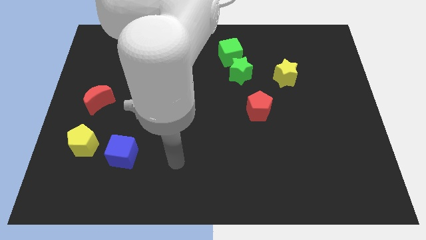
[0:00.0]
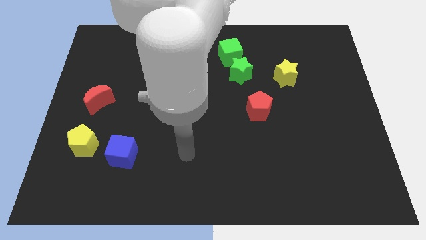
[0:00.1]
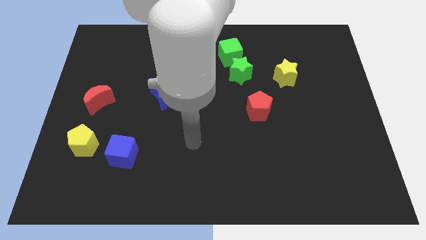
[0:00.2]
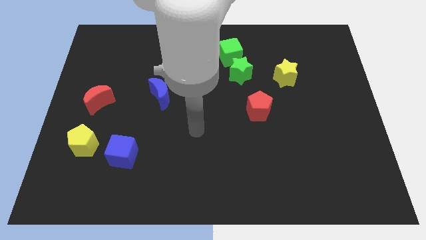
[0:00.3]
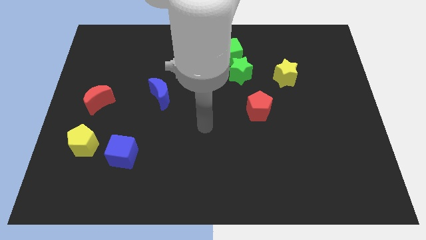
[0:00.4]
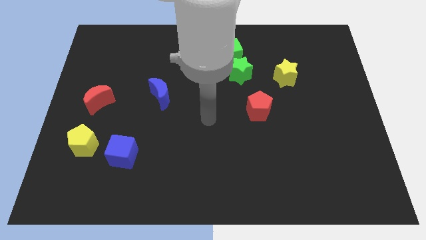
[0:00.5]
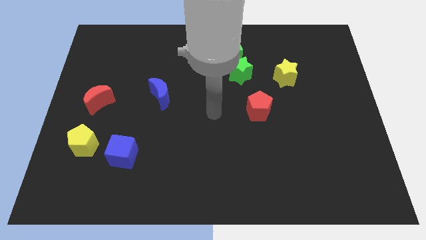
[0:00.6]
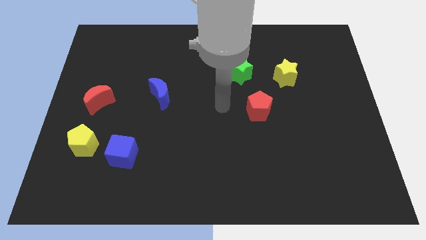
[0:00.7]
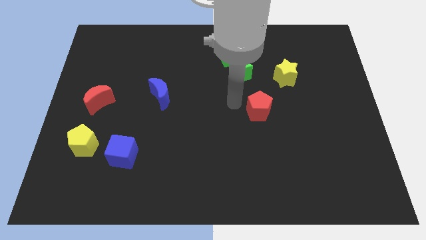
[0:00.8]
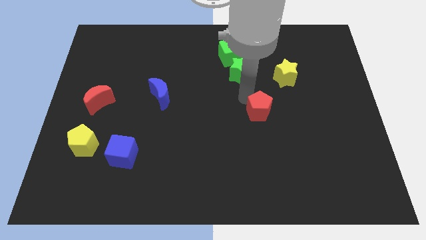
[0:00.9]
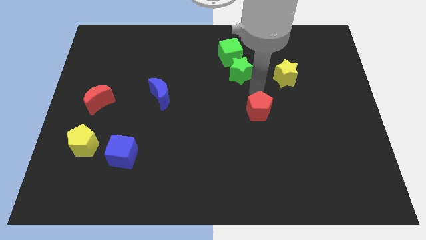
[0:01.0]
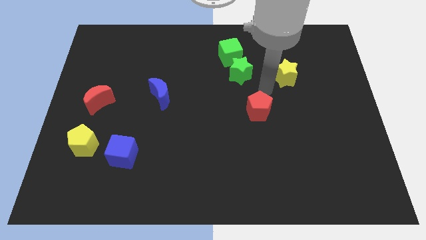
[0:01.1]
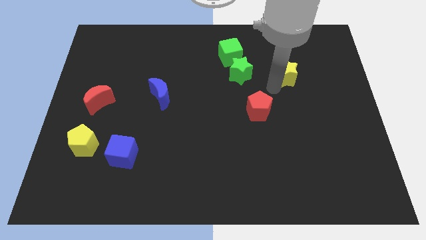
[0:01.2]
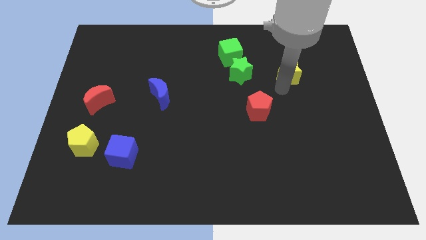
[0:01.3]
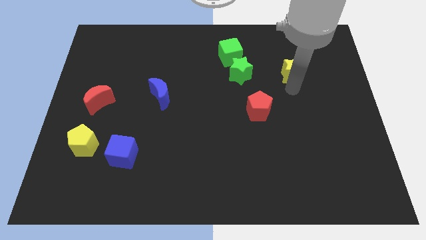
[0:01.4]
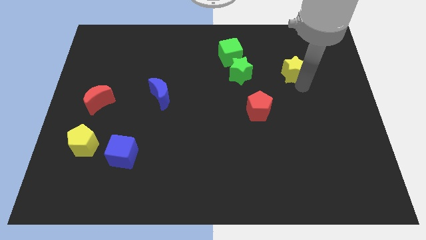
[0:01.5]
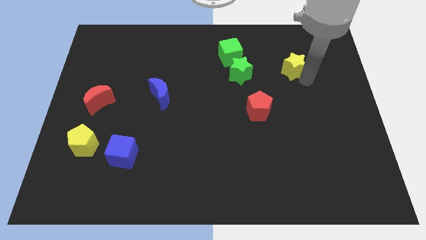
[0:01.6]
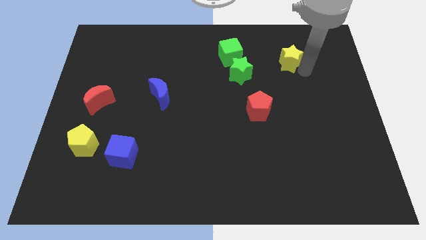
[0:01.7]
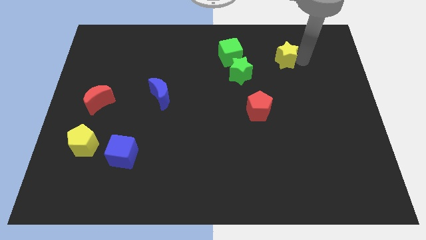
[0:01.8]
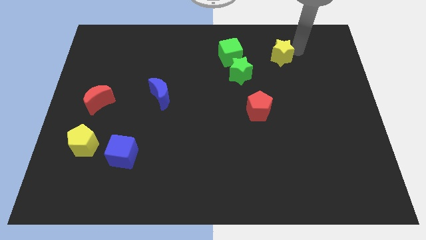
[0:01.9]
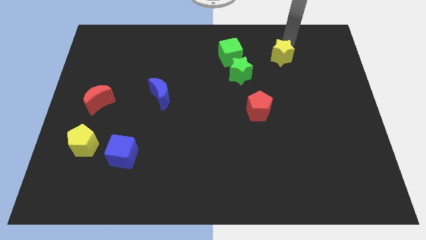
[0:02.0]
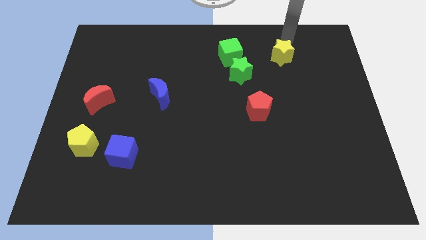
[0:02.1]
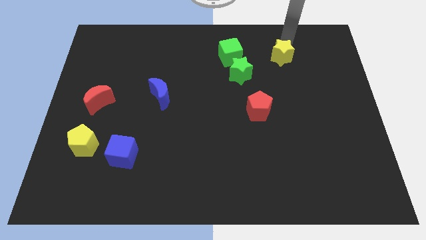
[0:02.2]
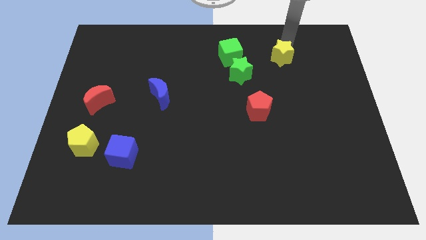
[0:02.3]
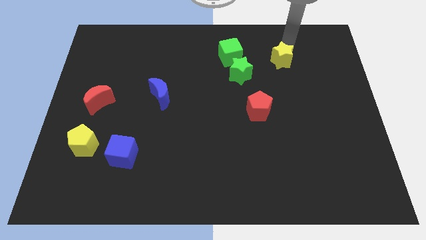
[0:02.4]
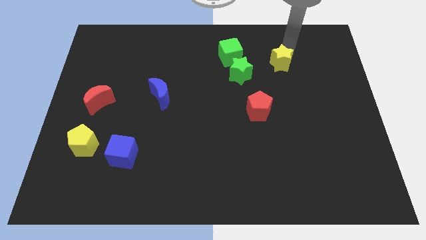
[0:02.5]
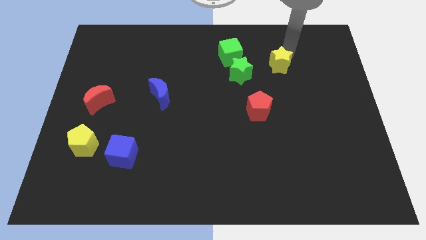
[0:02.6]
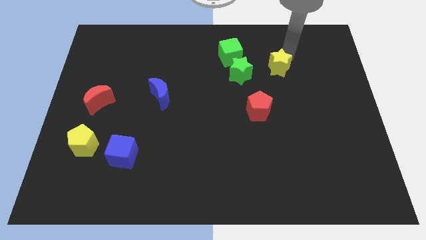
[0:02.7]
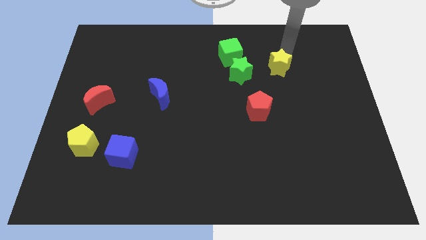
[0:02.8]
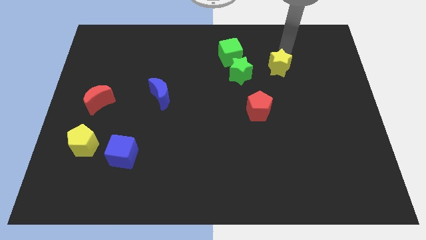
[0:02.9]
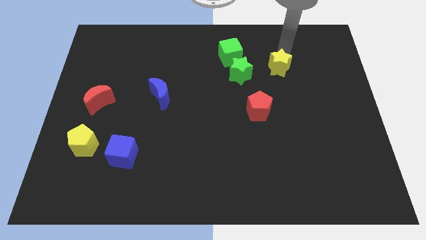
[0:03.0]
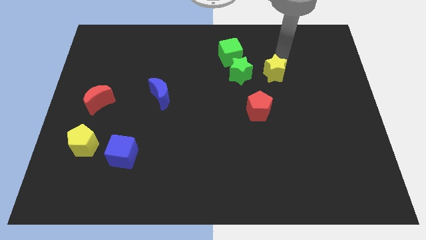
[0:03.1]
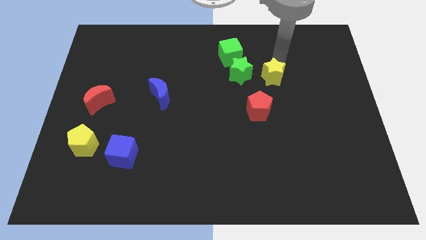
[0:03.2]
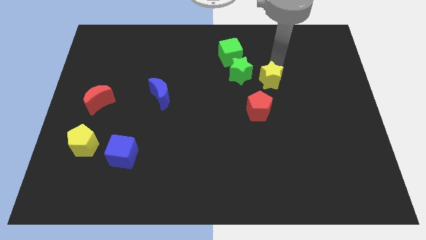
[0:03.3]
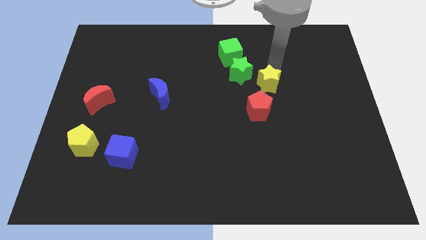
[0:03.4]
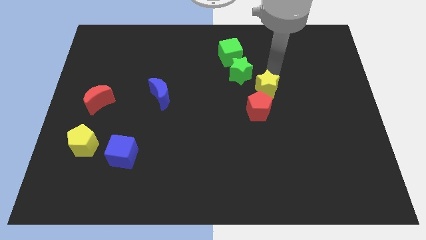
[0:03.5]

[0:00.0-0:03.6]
push the yellow star downwards and to the left diagonally a bit

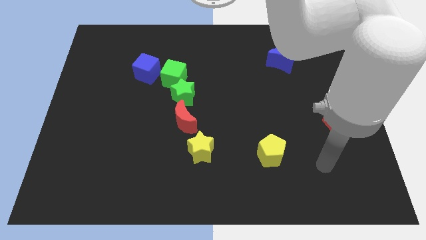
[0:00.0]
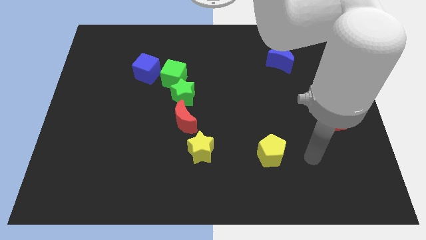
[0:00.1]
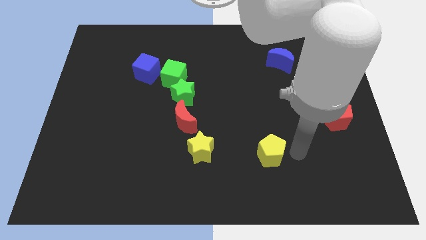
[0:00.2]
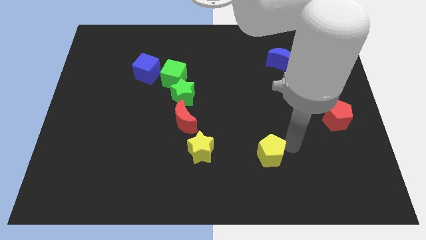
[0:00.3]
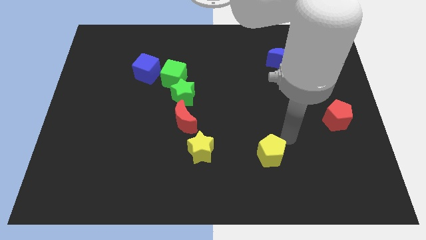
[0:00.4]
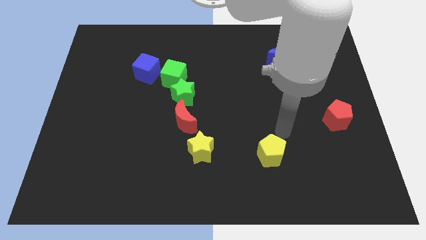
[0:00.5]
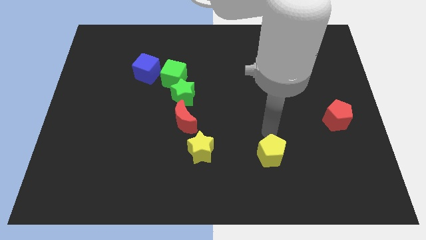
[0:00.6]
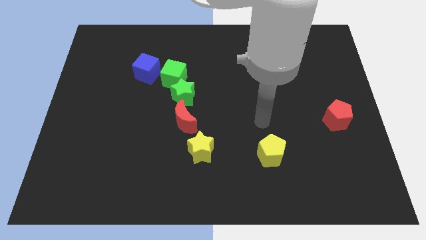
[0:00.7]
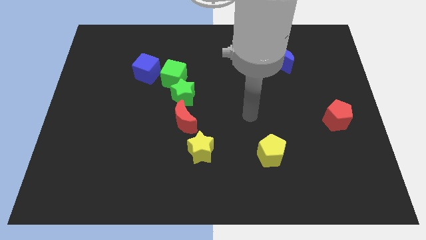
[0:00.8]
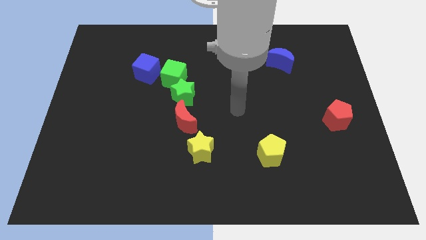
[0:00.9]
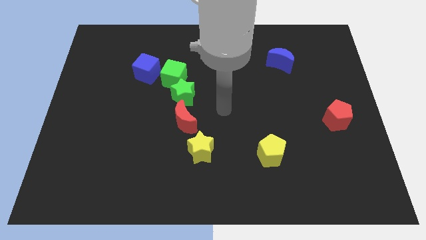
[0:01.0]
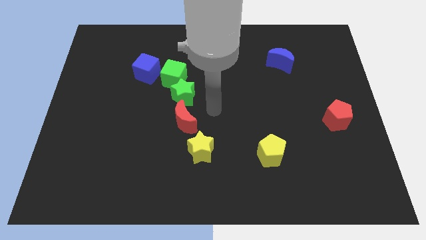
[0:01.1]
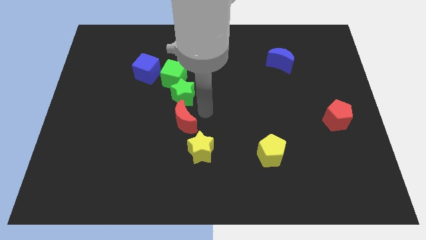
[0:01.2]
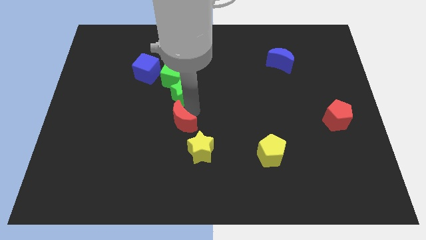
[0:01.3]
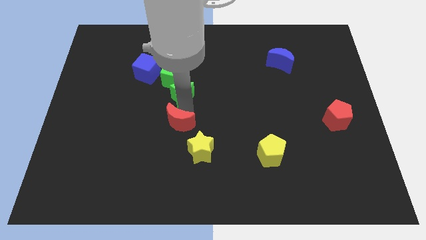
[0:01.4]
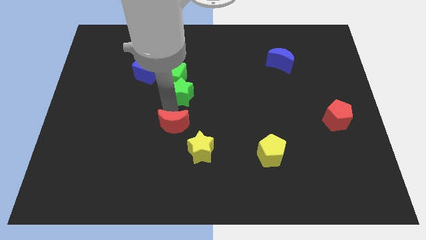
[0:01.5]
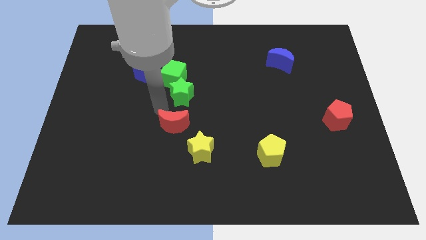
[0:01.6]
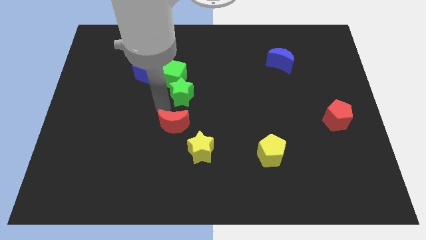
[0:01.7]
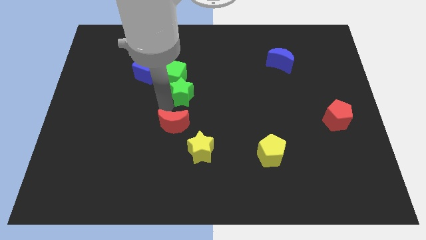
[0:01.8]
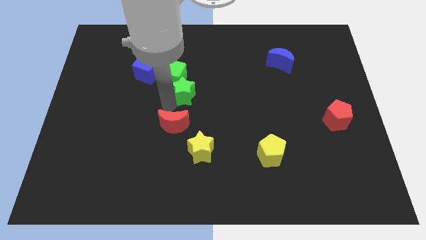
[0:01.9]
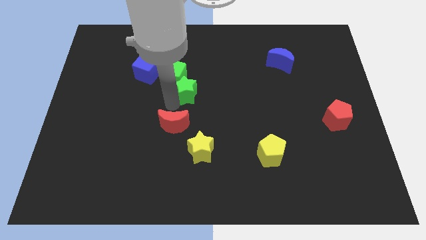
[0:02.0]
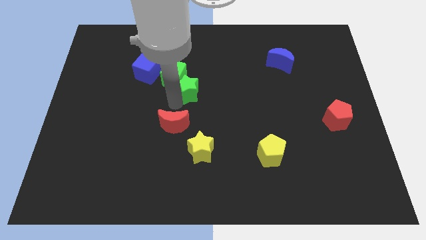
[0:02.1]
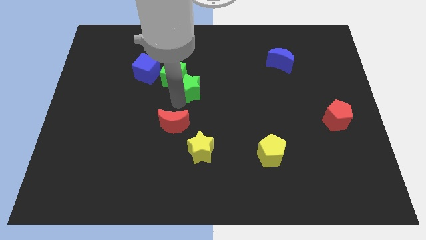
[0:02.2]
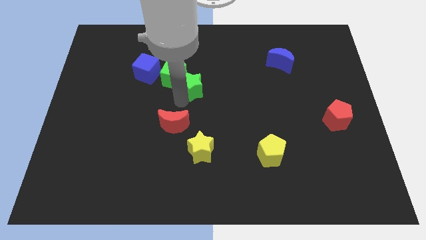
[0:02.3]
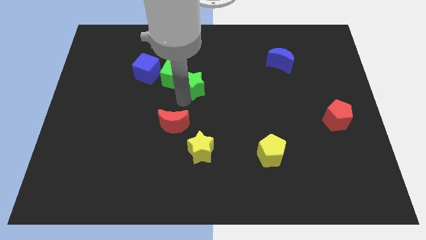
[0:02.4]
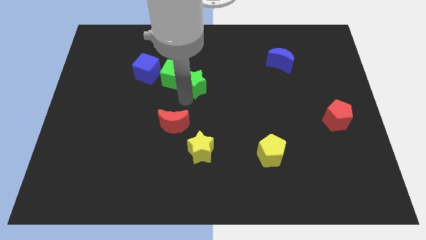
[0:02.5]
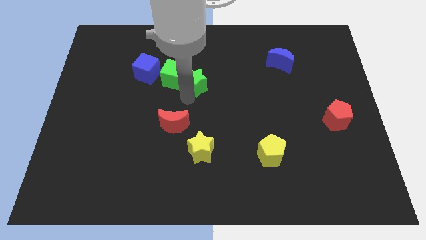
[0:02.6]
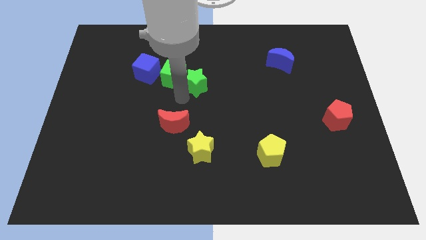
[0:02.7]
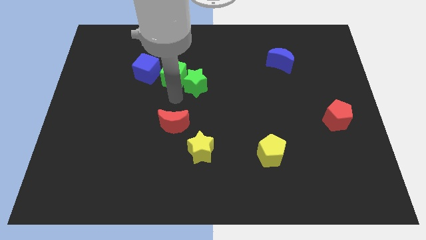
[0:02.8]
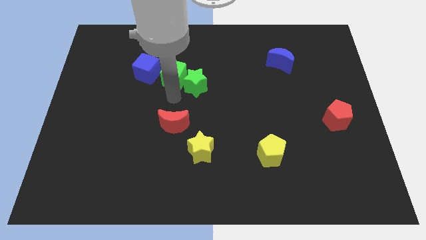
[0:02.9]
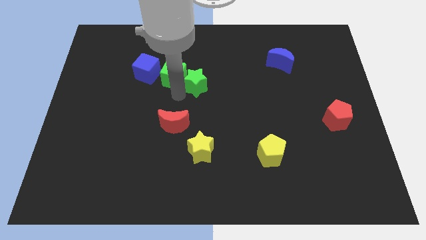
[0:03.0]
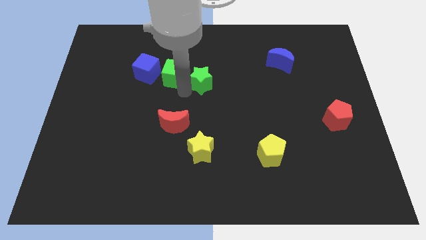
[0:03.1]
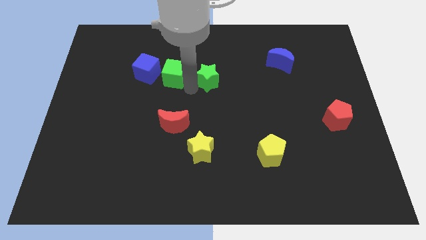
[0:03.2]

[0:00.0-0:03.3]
push the green star upwards and then right a bit

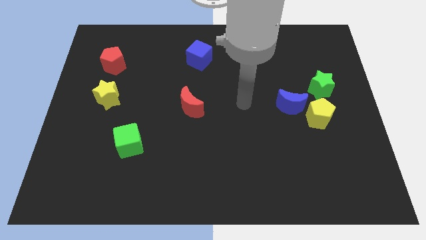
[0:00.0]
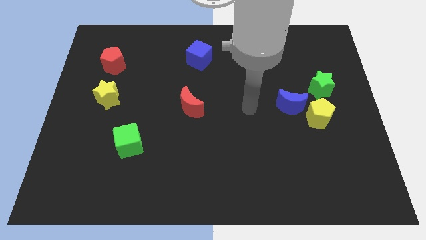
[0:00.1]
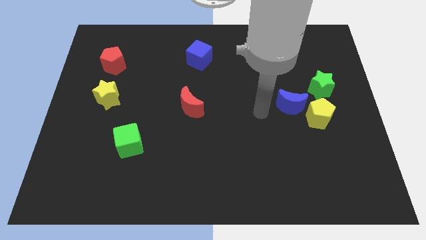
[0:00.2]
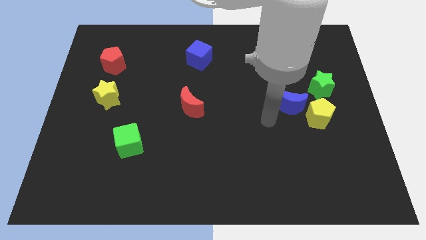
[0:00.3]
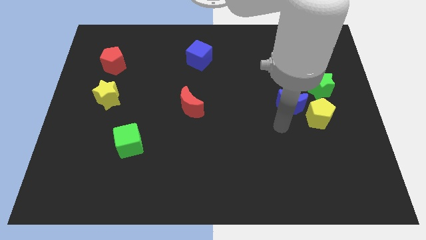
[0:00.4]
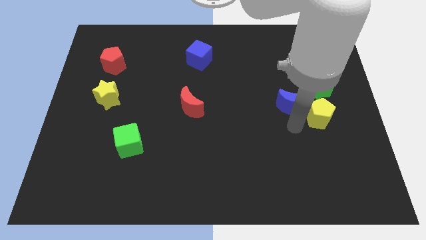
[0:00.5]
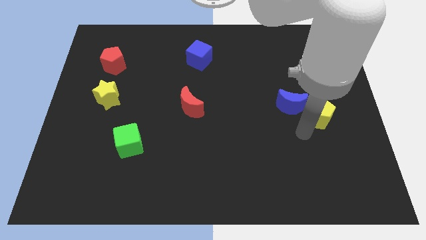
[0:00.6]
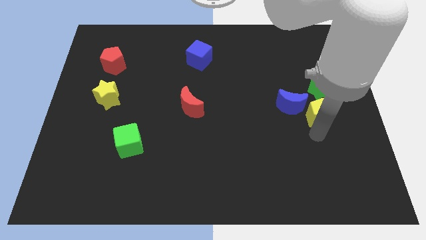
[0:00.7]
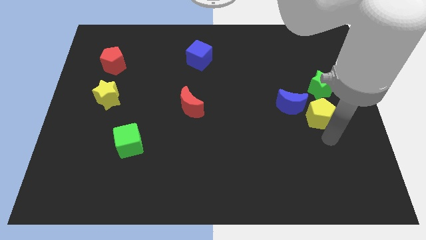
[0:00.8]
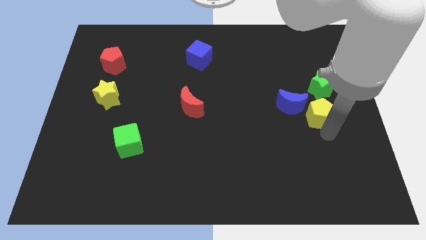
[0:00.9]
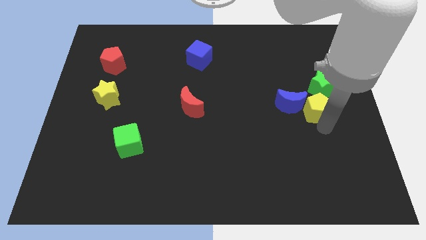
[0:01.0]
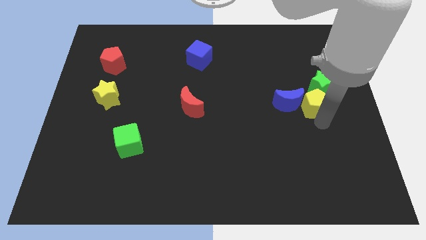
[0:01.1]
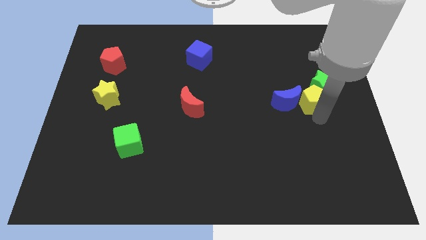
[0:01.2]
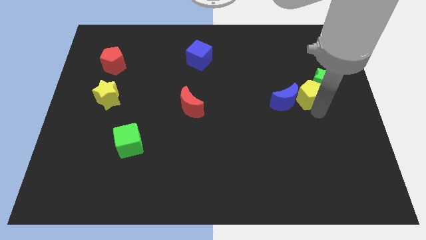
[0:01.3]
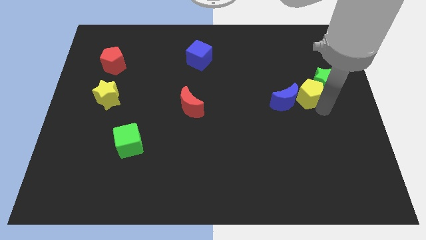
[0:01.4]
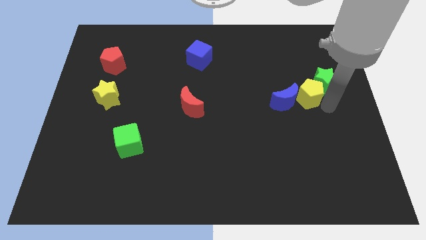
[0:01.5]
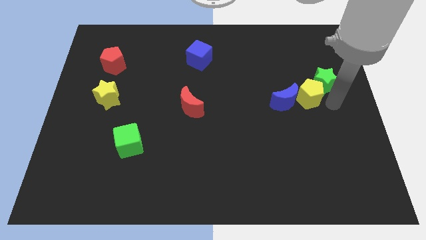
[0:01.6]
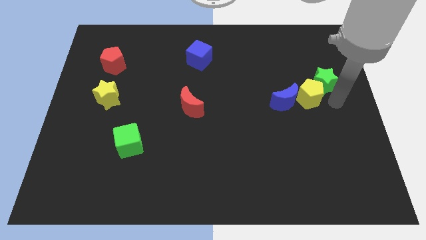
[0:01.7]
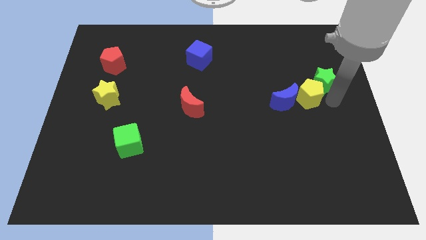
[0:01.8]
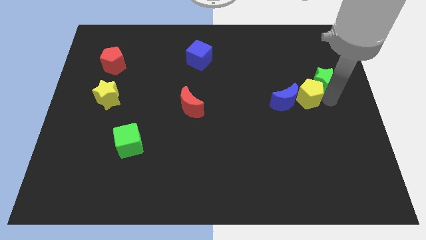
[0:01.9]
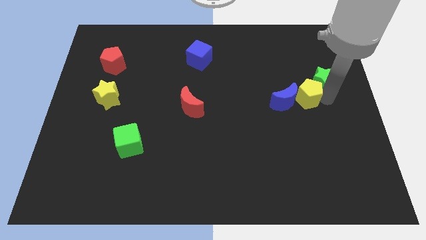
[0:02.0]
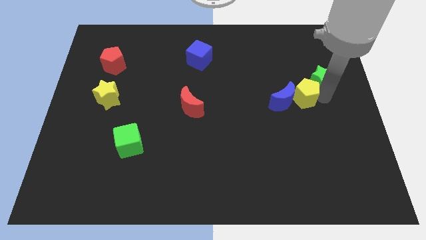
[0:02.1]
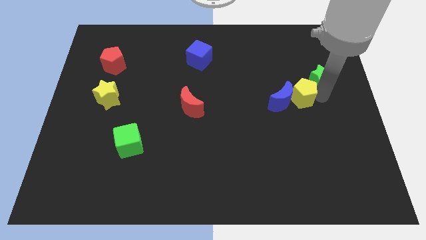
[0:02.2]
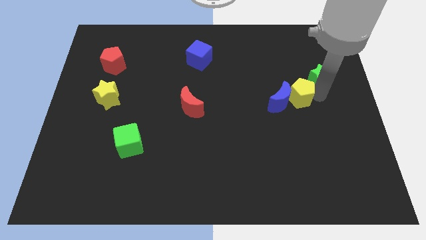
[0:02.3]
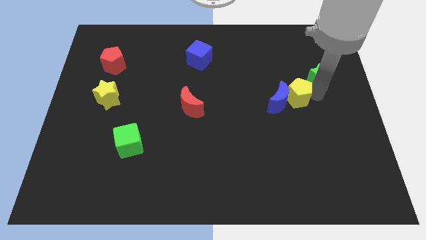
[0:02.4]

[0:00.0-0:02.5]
slide the yellow pentagon a little bit diagonally upwards and left
